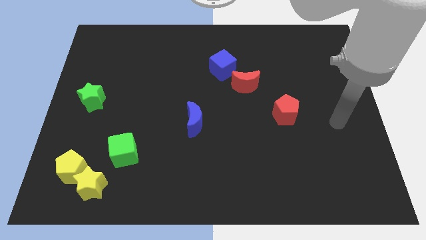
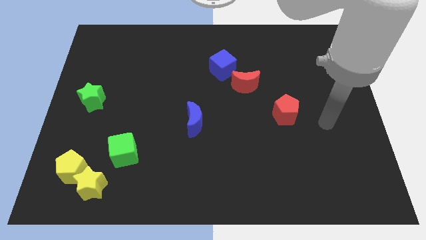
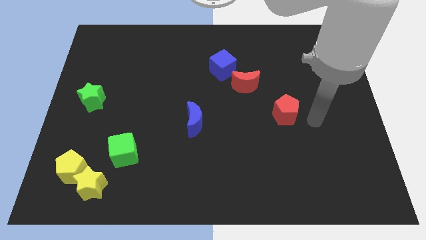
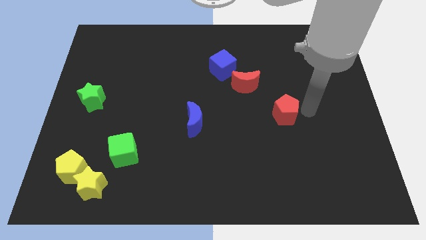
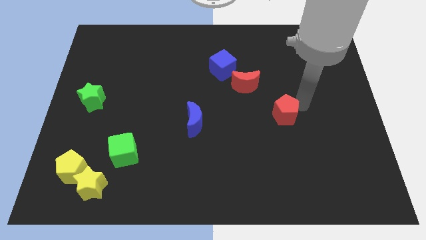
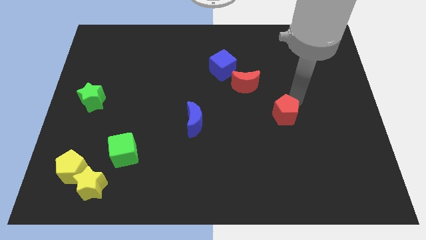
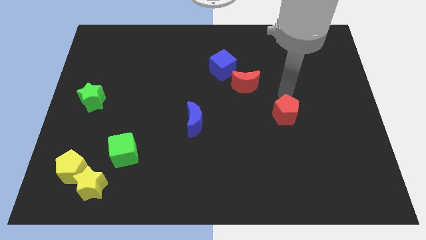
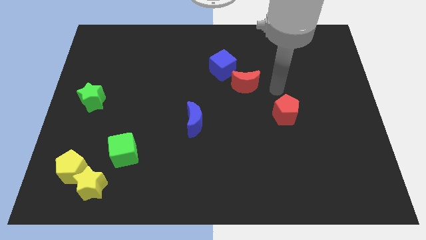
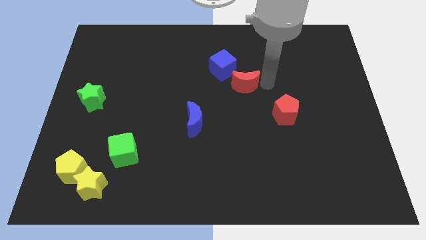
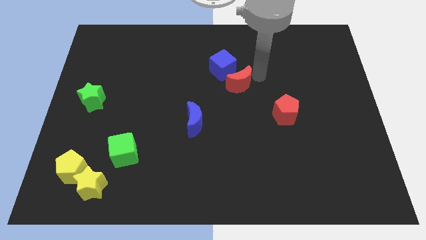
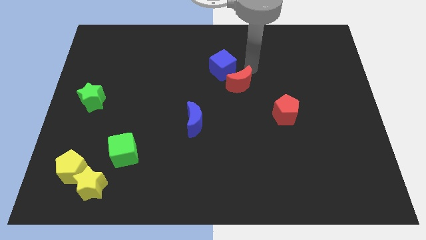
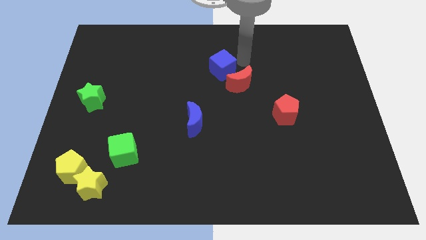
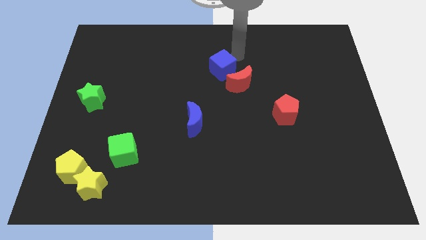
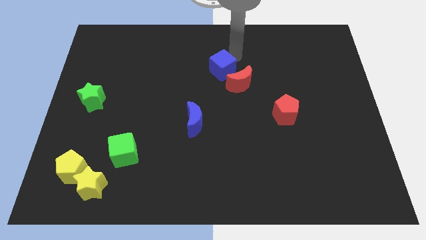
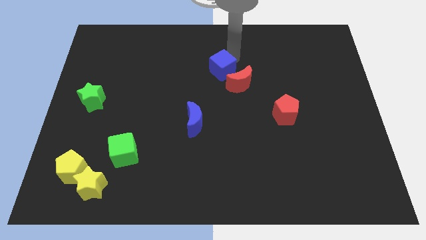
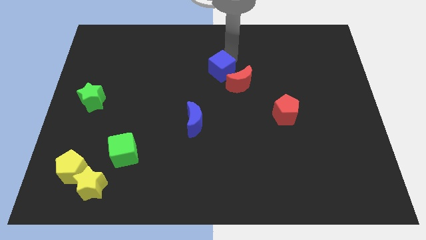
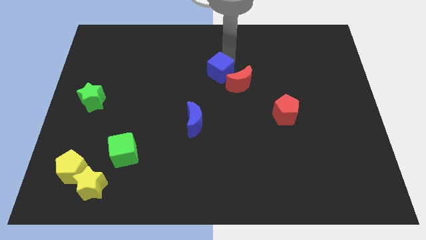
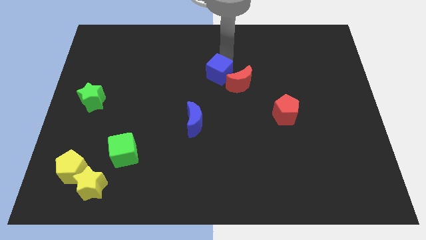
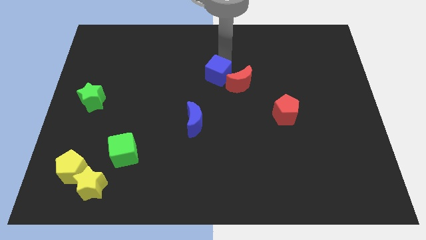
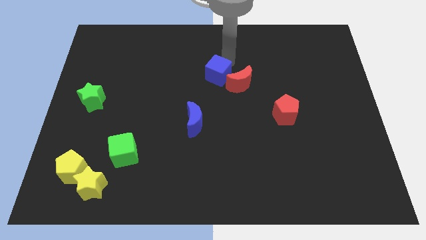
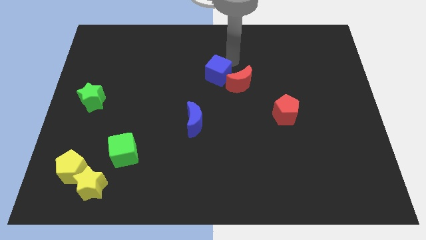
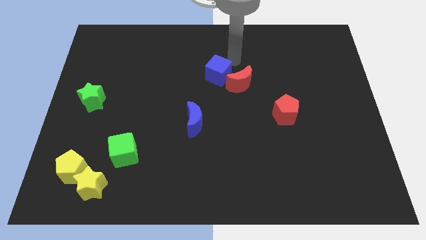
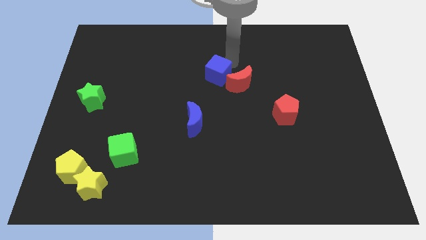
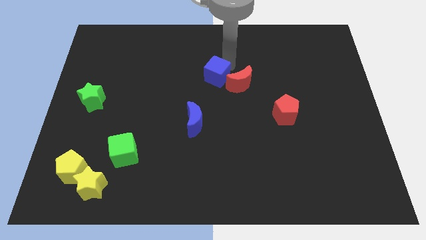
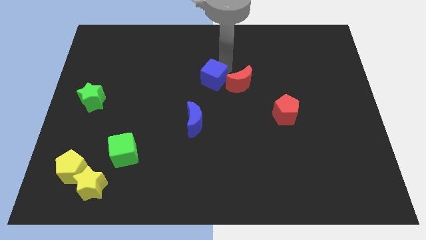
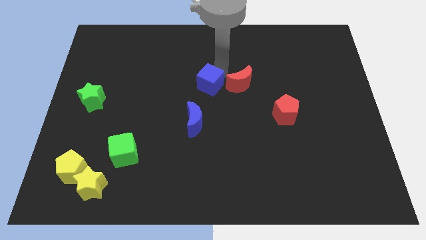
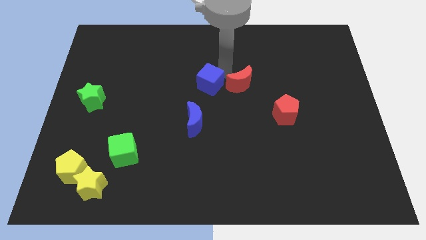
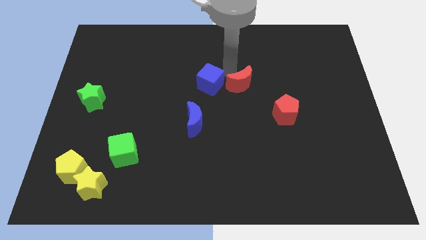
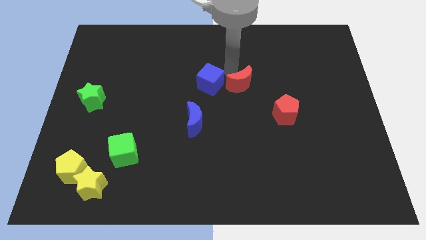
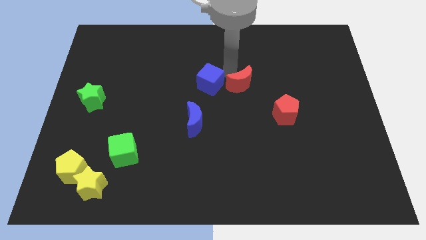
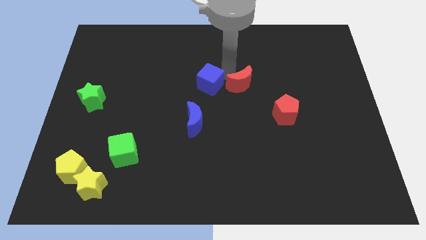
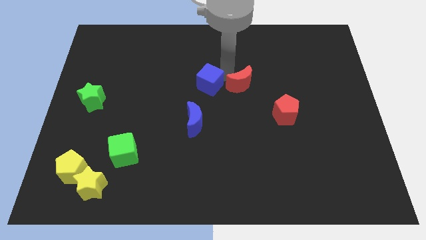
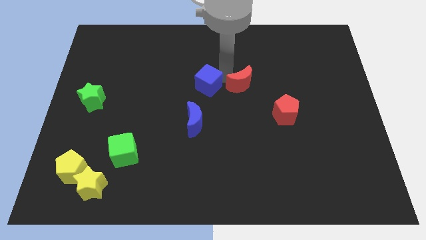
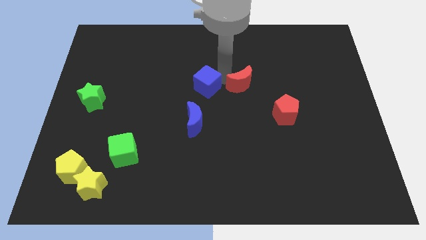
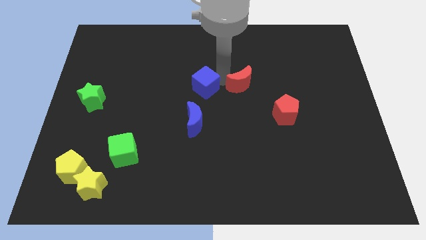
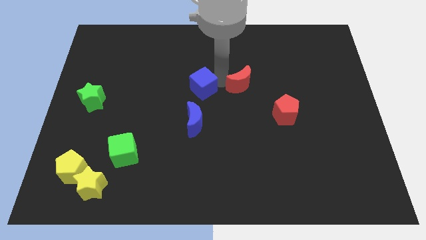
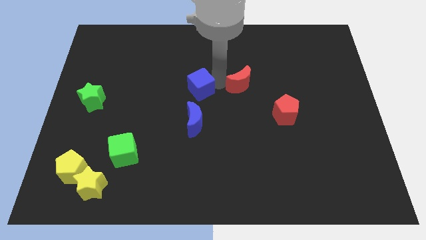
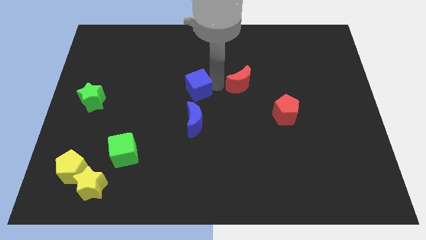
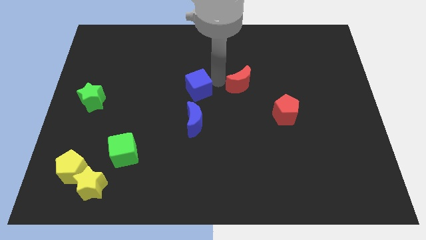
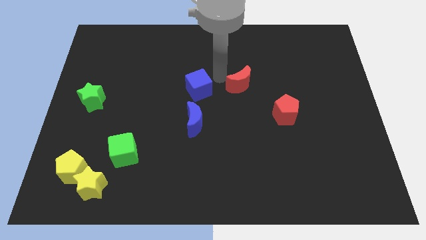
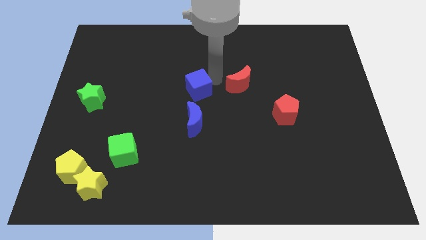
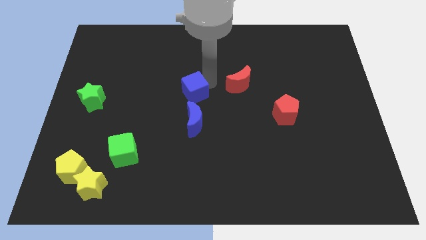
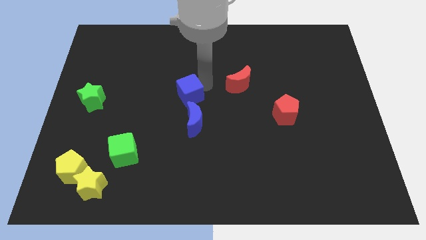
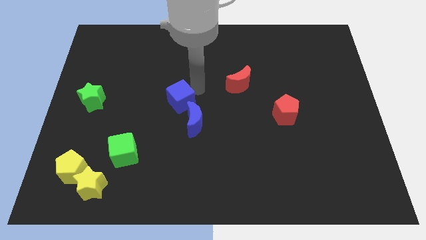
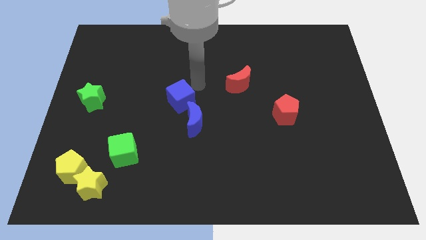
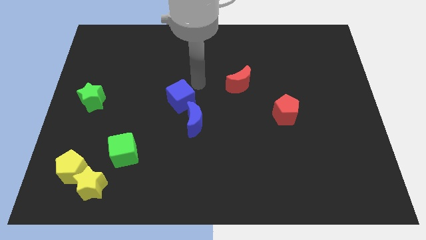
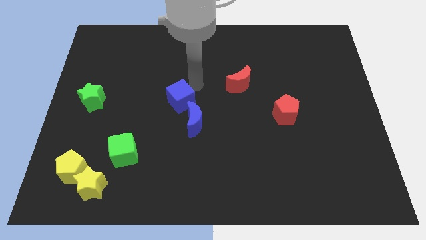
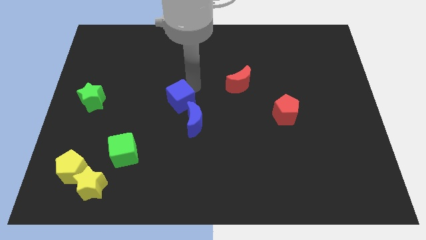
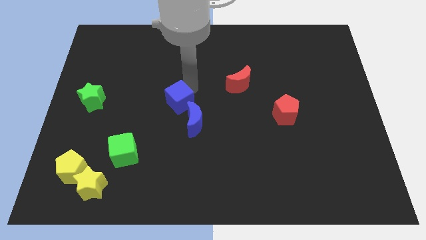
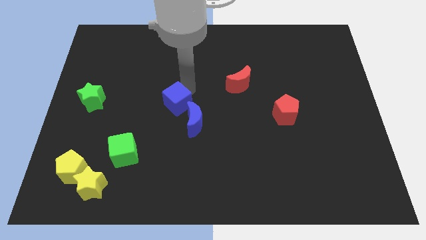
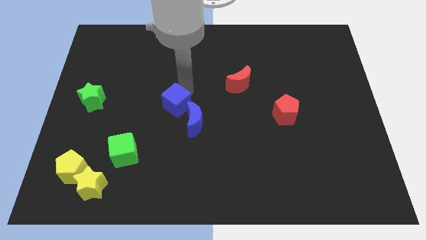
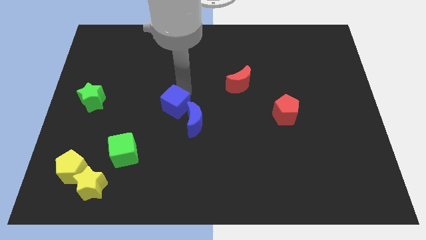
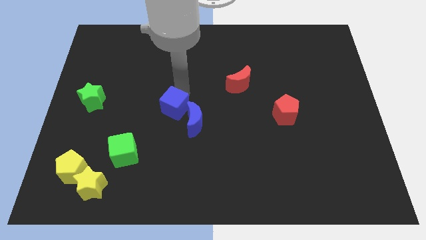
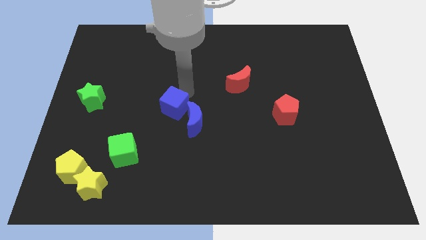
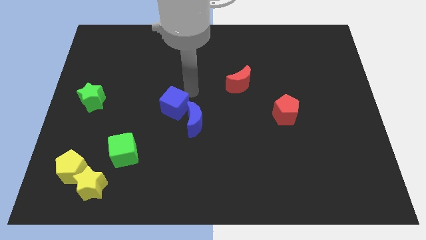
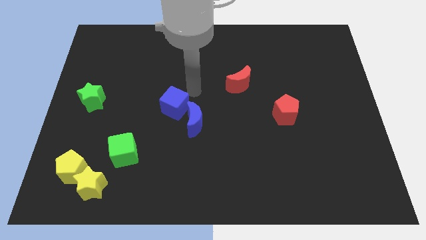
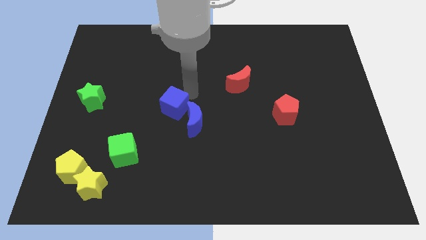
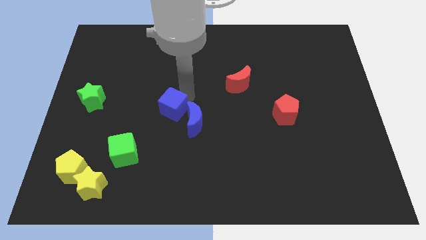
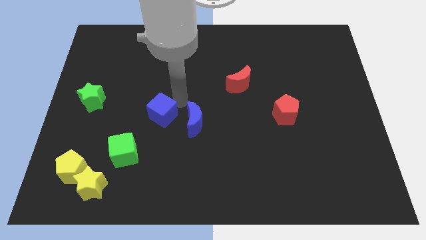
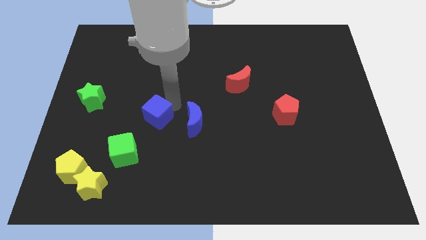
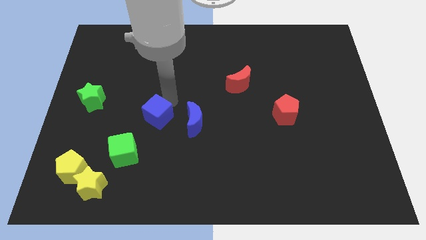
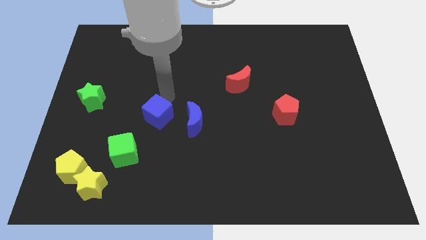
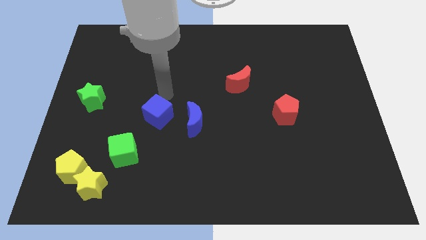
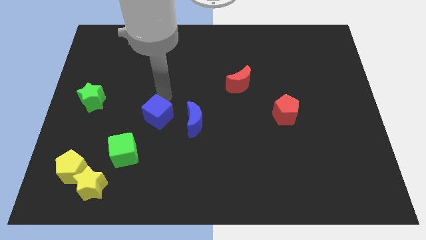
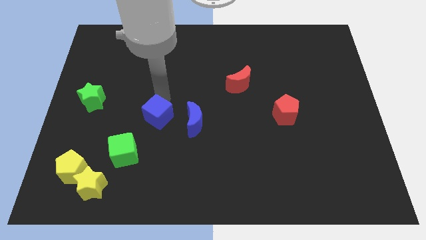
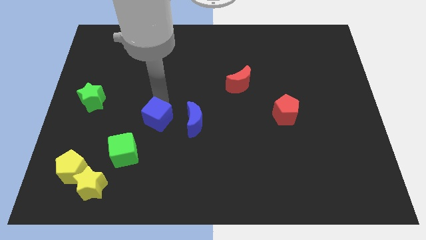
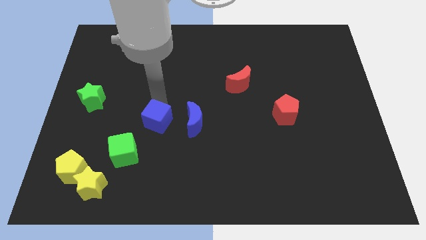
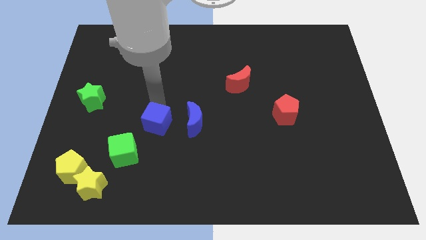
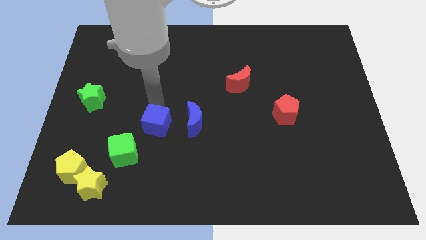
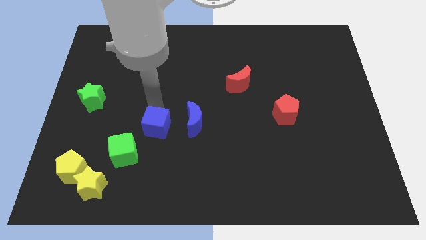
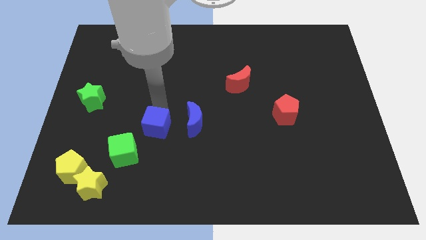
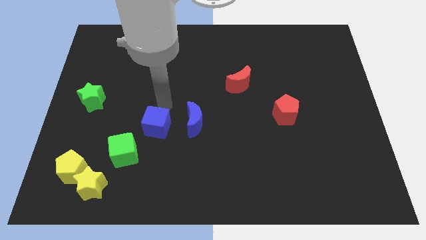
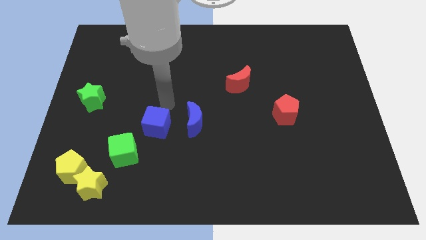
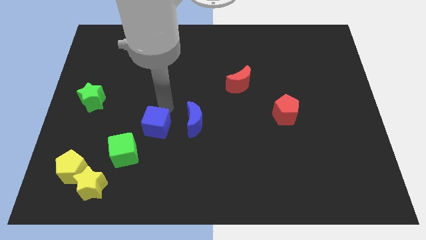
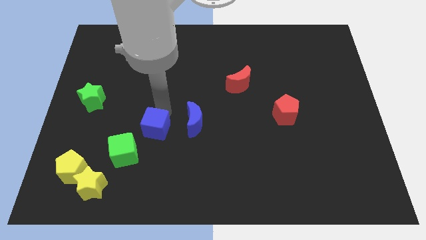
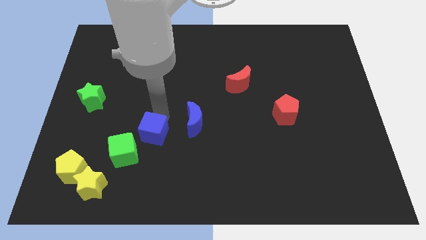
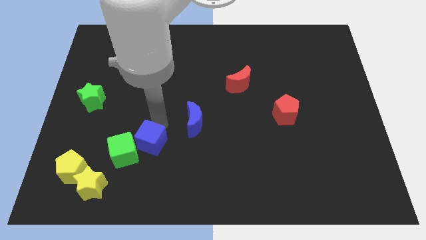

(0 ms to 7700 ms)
put the blue cube to the green cube
